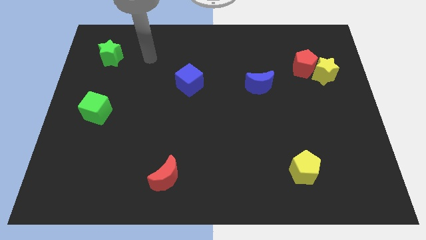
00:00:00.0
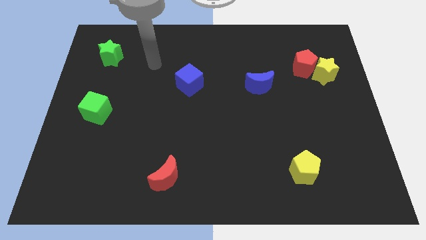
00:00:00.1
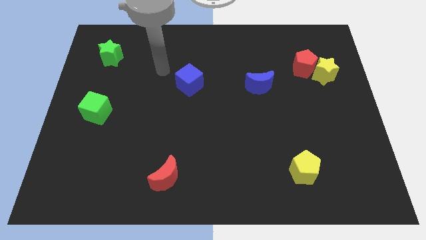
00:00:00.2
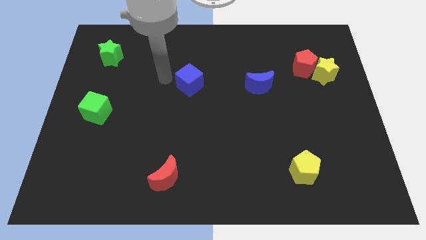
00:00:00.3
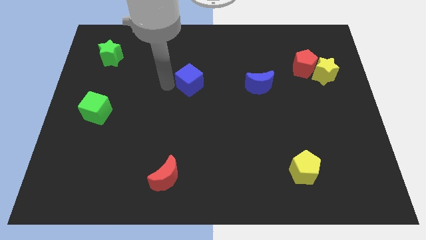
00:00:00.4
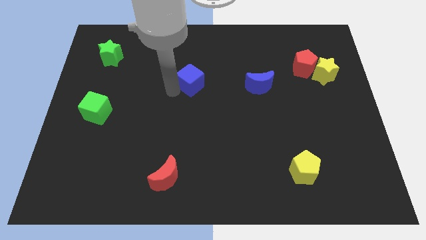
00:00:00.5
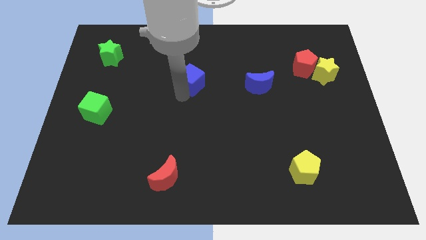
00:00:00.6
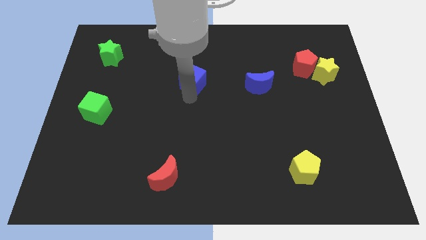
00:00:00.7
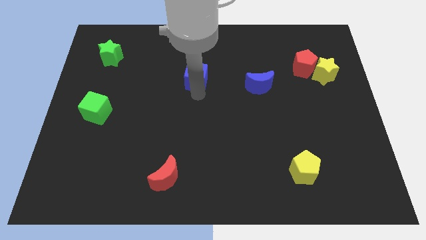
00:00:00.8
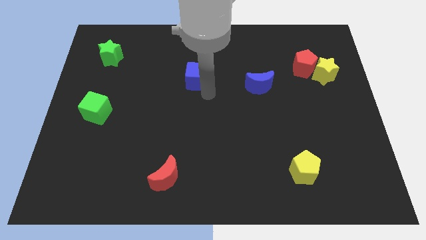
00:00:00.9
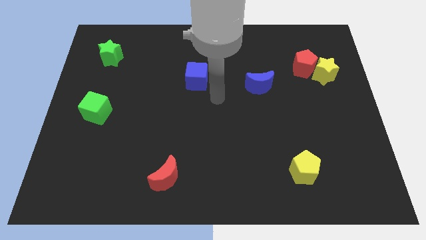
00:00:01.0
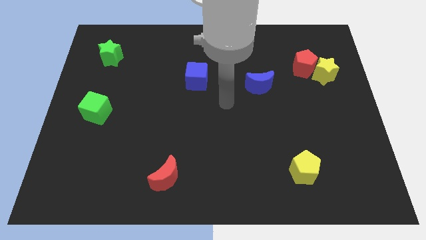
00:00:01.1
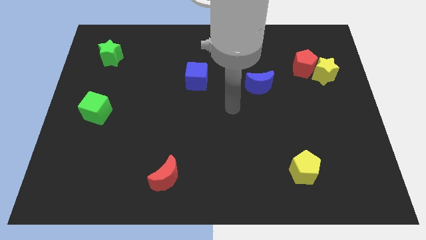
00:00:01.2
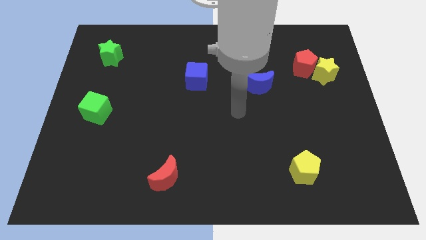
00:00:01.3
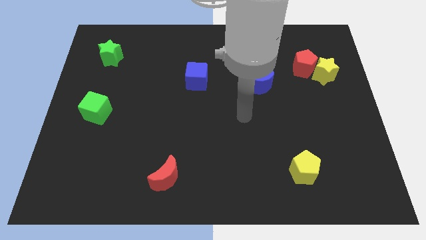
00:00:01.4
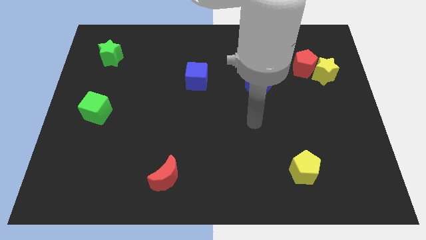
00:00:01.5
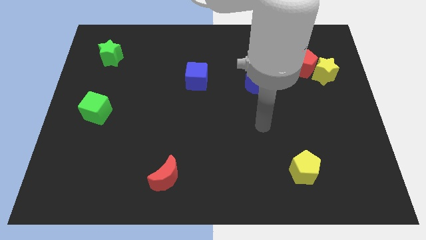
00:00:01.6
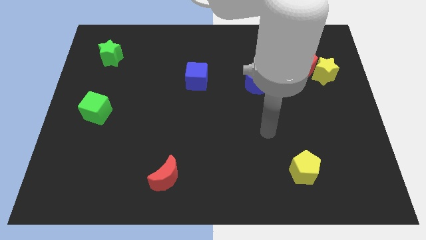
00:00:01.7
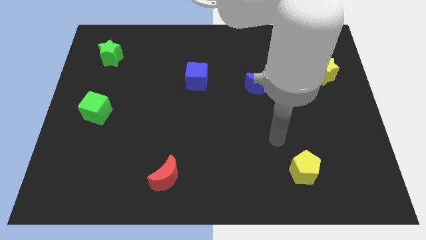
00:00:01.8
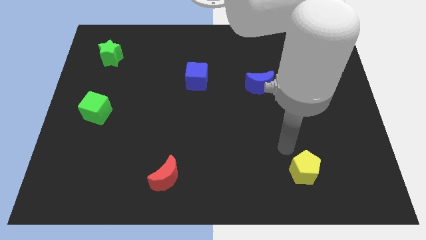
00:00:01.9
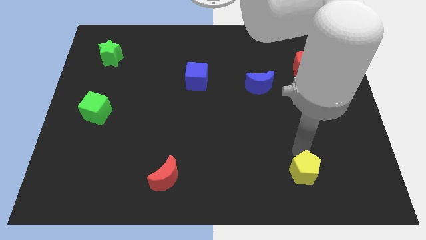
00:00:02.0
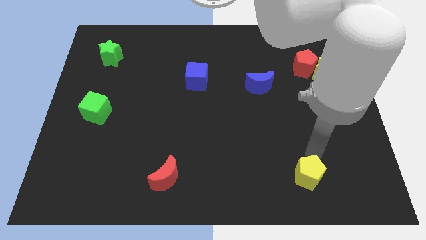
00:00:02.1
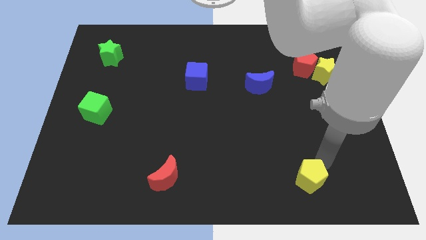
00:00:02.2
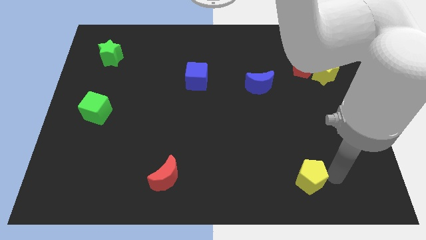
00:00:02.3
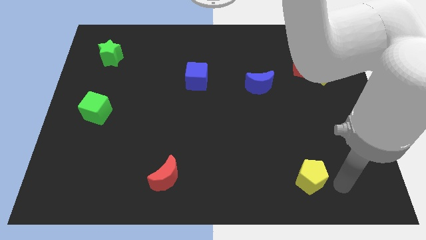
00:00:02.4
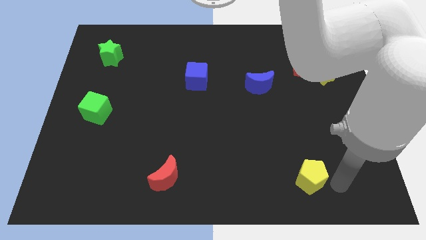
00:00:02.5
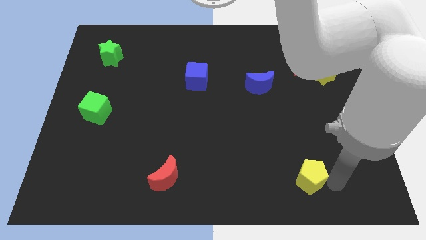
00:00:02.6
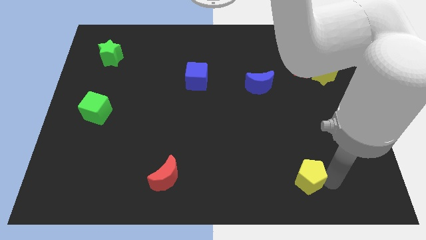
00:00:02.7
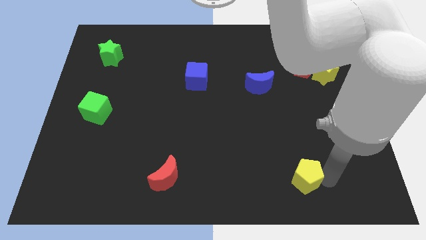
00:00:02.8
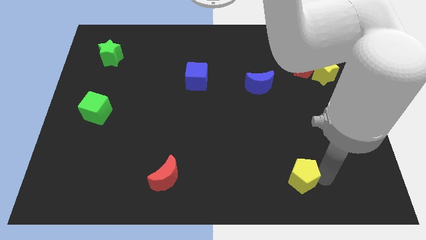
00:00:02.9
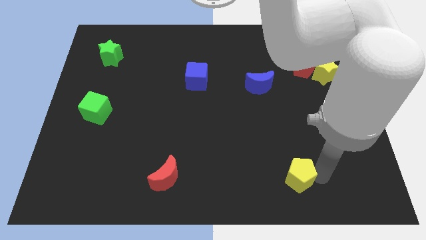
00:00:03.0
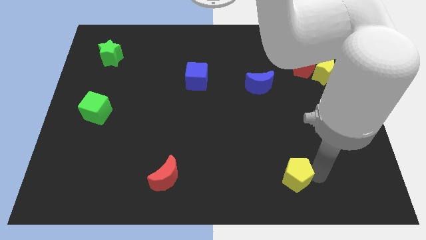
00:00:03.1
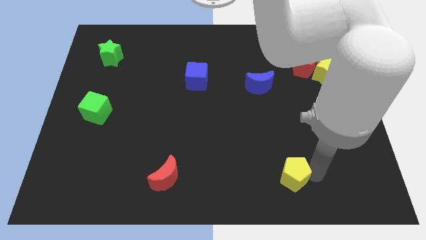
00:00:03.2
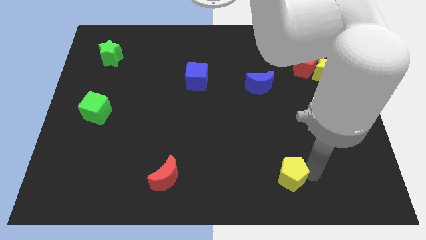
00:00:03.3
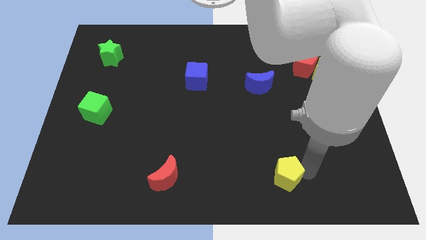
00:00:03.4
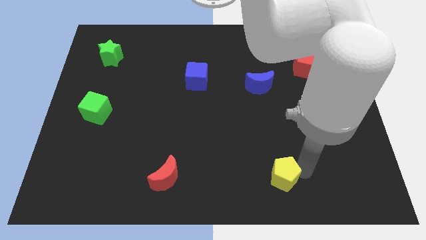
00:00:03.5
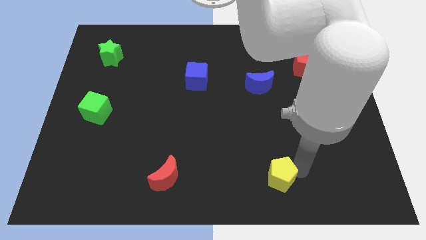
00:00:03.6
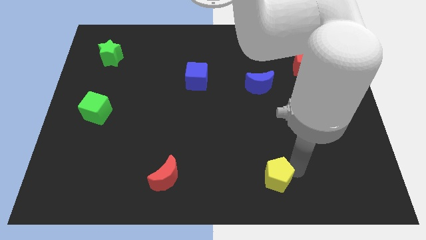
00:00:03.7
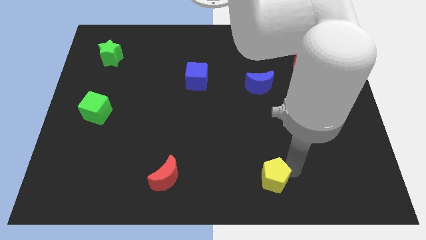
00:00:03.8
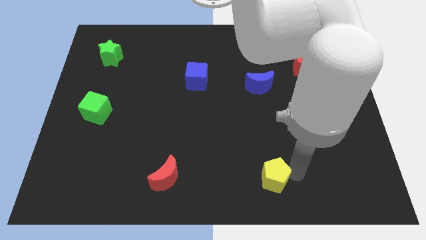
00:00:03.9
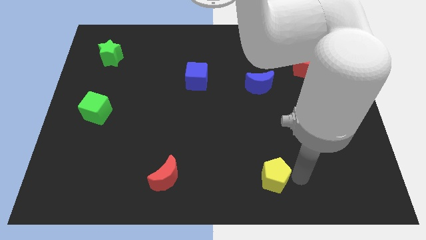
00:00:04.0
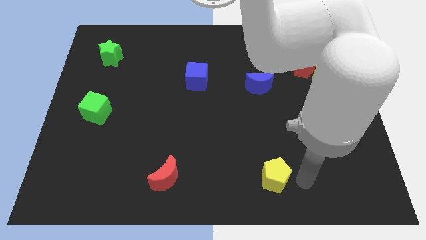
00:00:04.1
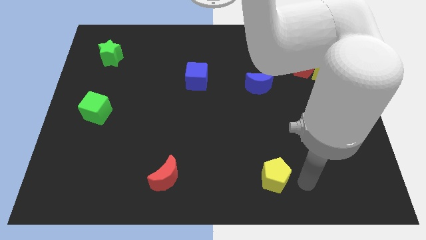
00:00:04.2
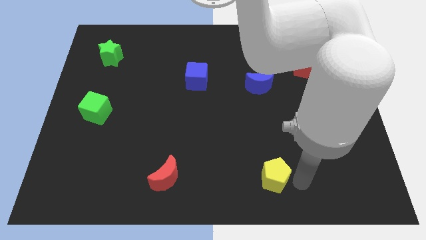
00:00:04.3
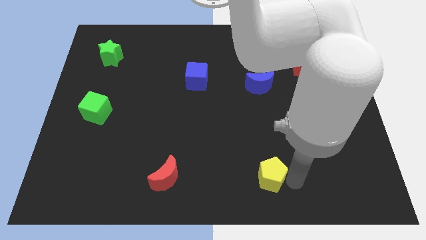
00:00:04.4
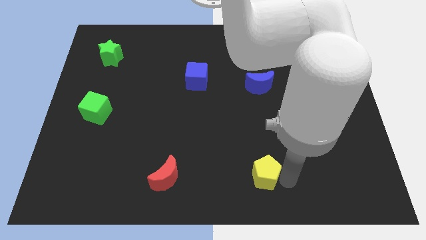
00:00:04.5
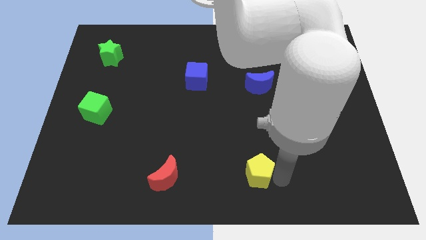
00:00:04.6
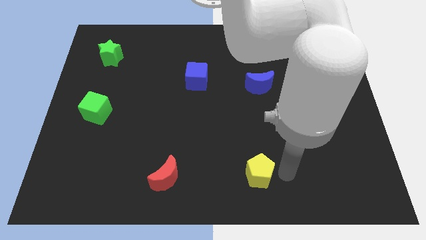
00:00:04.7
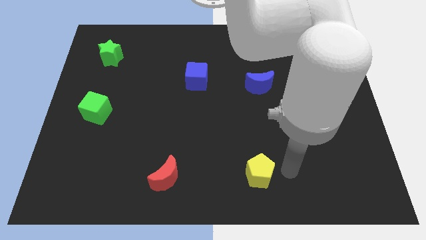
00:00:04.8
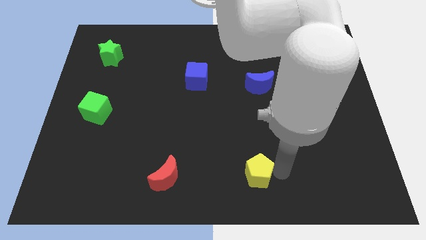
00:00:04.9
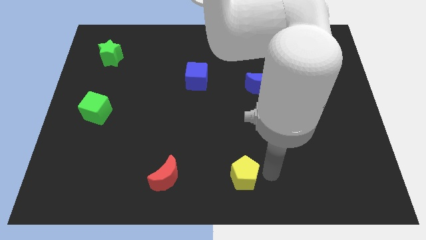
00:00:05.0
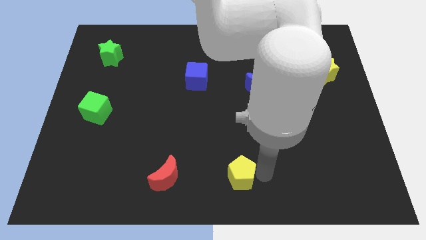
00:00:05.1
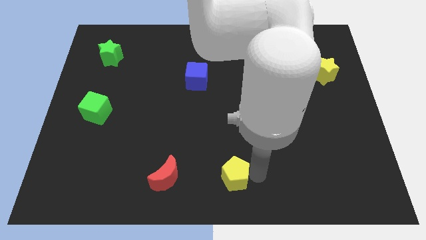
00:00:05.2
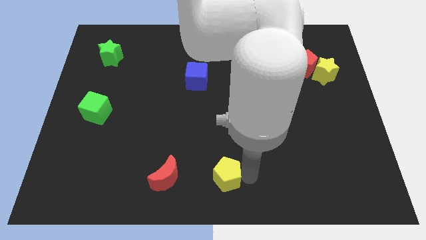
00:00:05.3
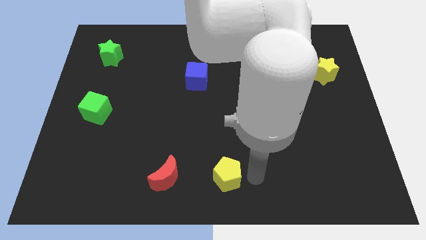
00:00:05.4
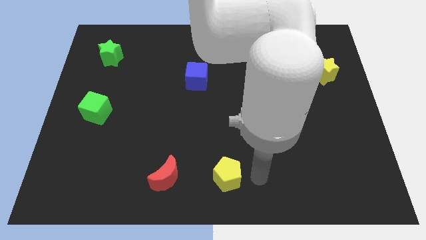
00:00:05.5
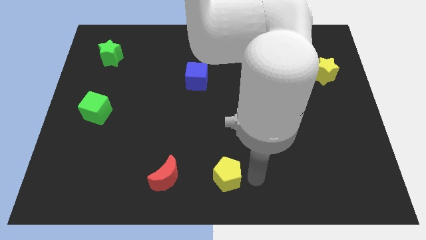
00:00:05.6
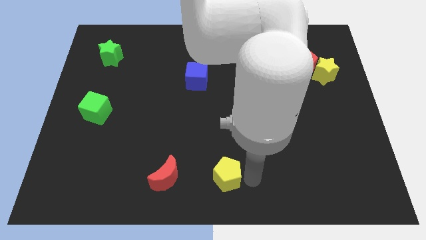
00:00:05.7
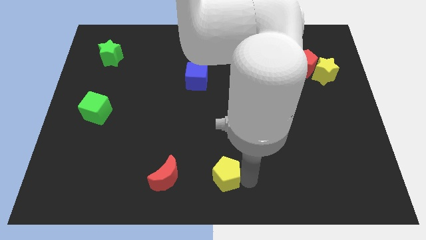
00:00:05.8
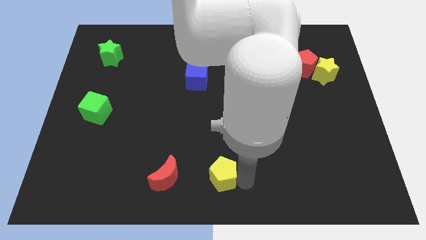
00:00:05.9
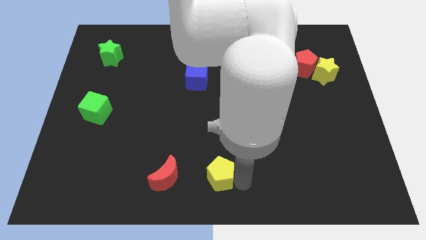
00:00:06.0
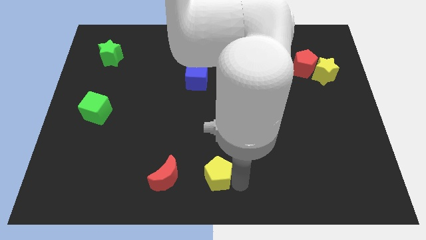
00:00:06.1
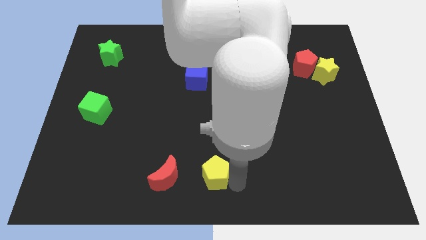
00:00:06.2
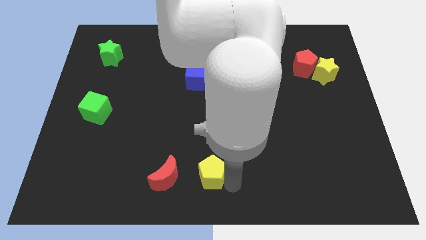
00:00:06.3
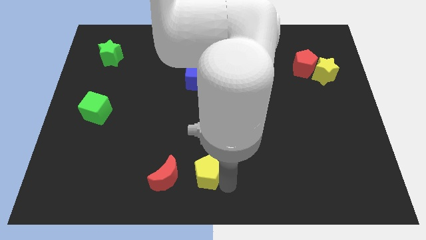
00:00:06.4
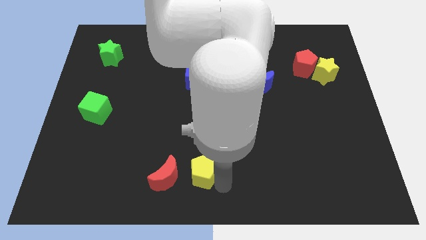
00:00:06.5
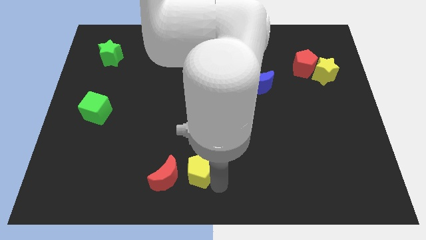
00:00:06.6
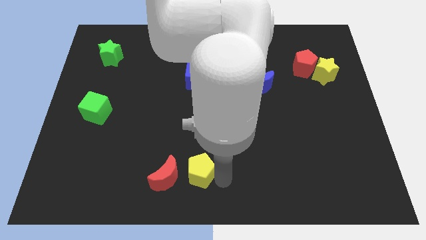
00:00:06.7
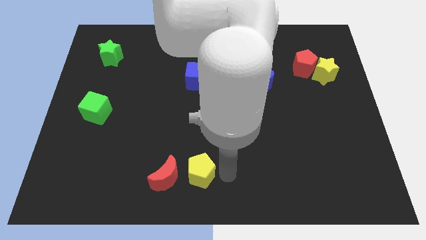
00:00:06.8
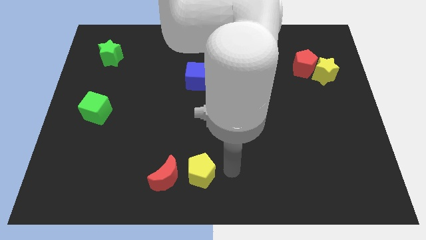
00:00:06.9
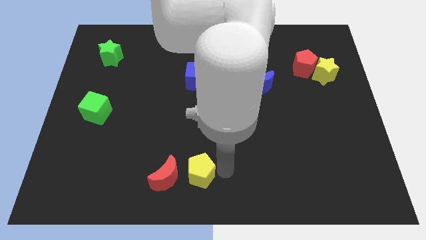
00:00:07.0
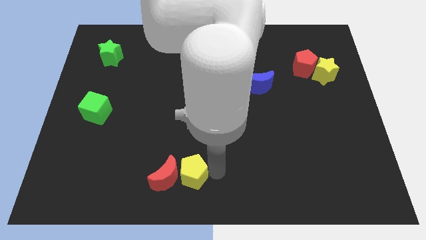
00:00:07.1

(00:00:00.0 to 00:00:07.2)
put the yellow pentagon close to the red moon
